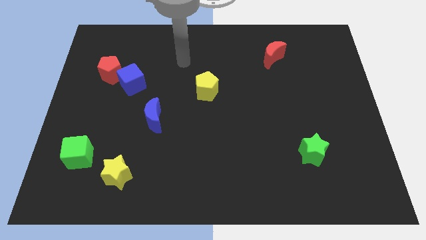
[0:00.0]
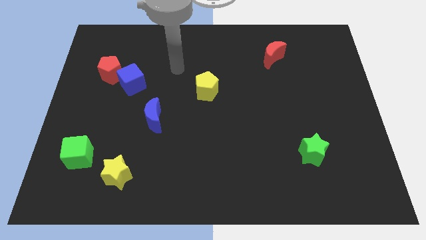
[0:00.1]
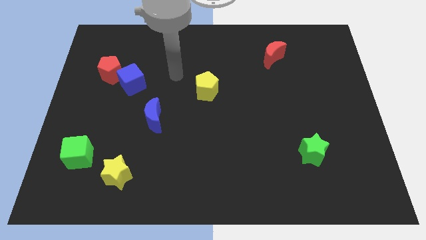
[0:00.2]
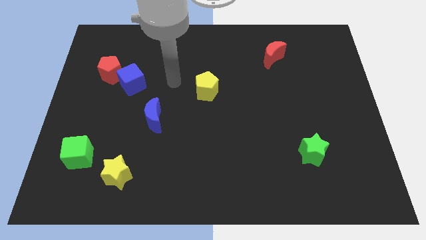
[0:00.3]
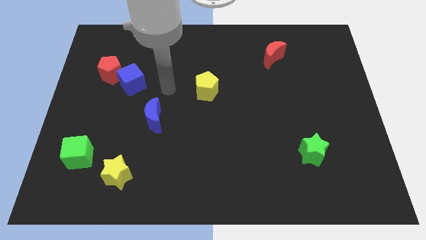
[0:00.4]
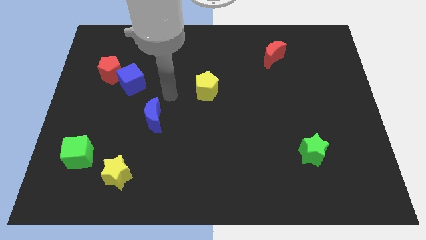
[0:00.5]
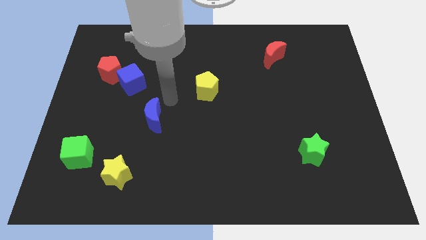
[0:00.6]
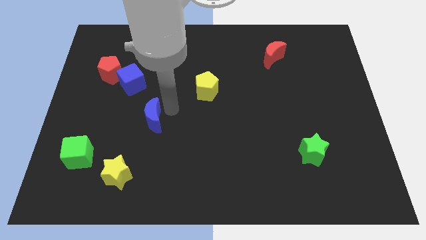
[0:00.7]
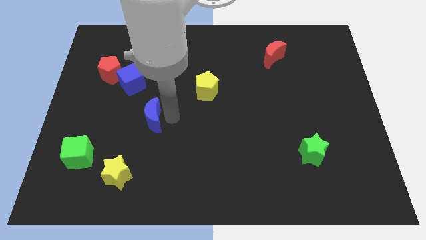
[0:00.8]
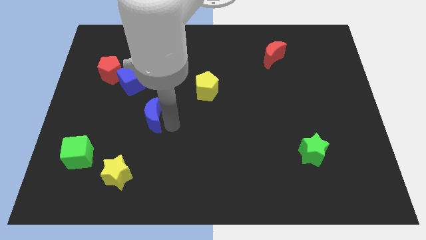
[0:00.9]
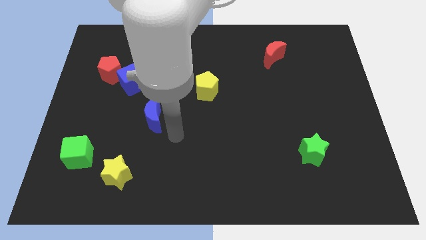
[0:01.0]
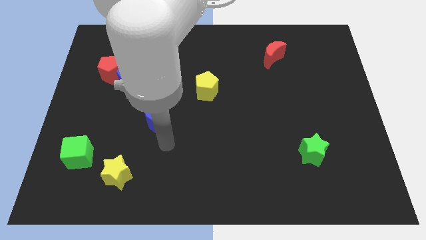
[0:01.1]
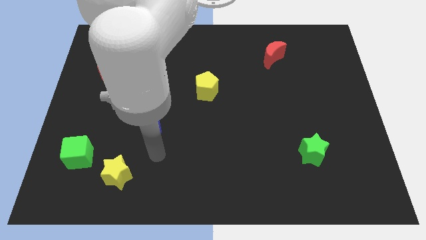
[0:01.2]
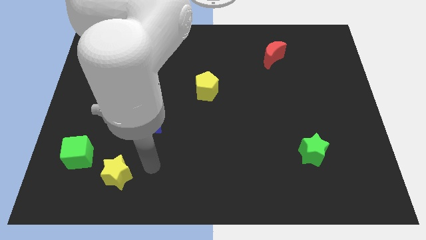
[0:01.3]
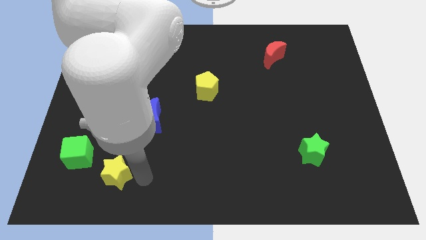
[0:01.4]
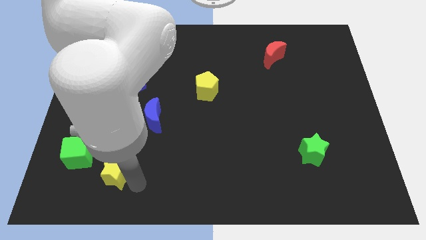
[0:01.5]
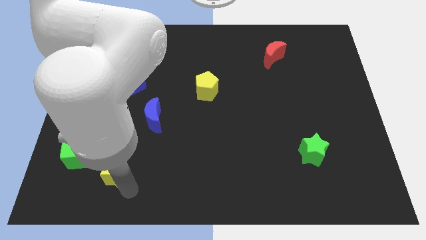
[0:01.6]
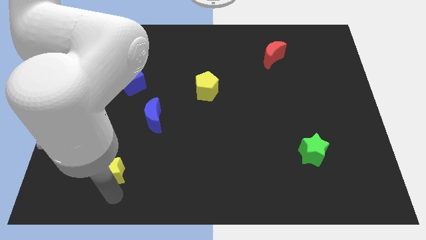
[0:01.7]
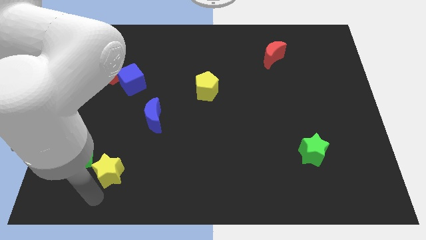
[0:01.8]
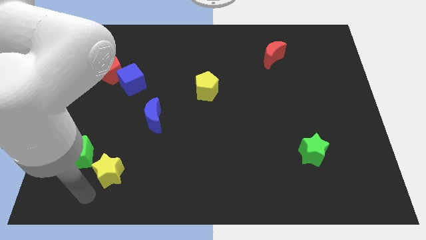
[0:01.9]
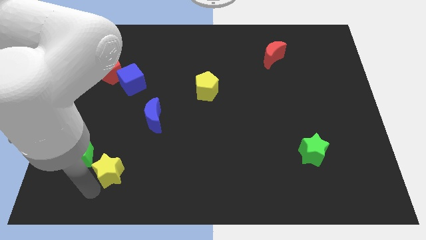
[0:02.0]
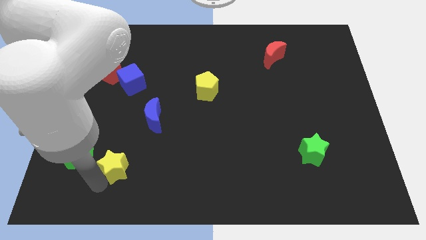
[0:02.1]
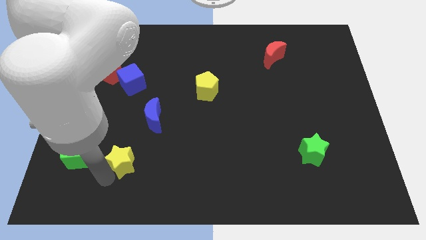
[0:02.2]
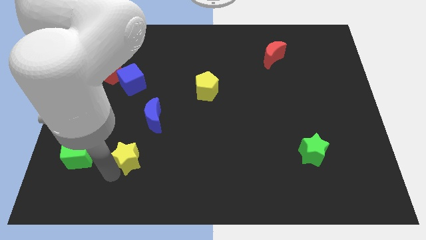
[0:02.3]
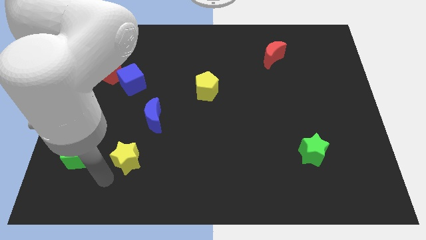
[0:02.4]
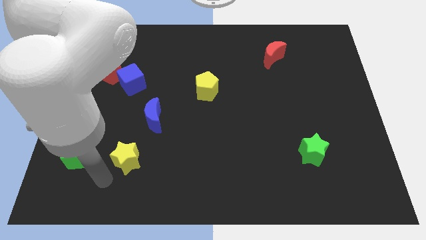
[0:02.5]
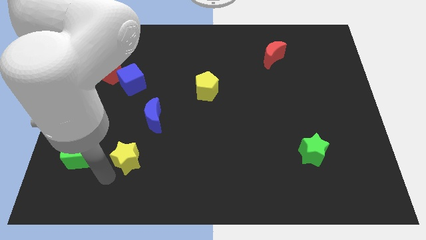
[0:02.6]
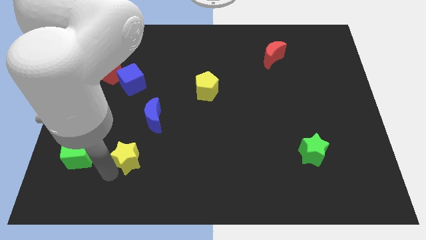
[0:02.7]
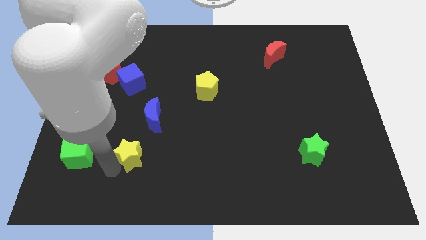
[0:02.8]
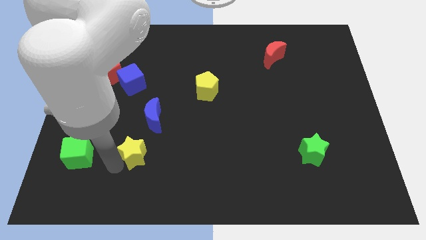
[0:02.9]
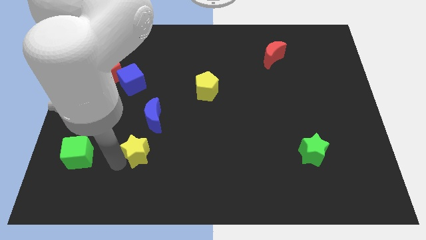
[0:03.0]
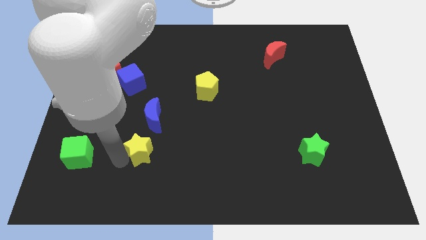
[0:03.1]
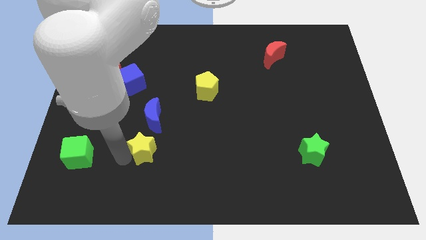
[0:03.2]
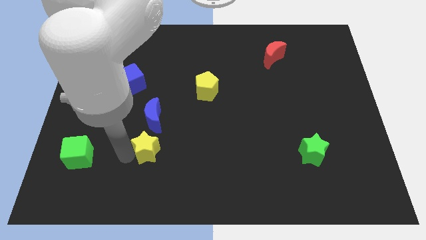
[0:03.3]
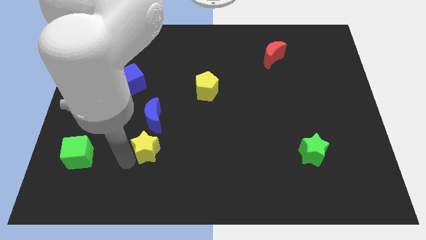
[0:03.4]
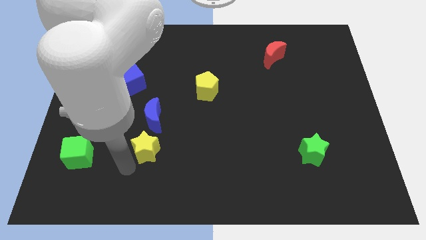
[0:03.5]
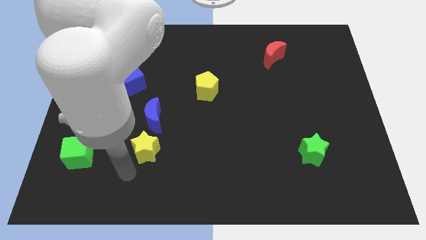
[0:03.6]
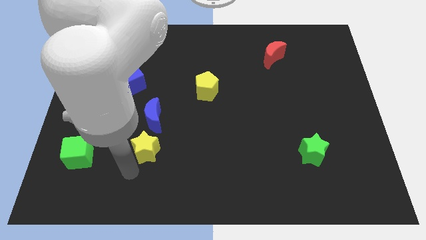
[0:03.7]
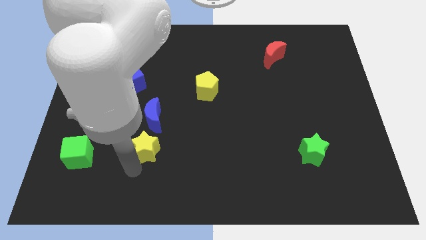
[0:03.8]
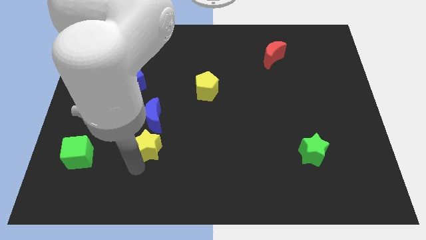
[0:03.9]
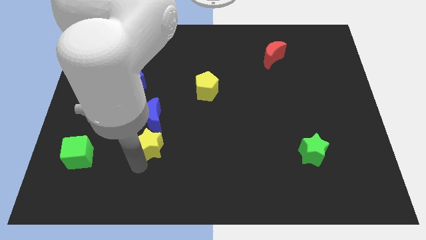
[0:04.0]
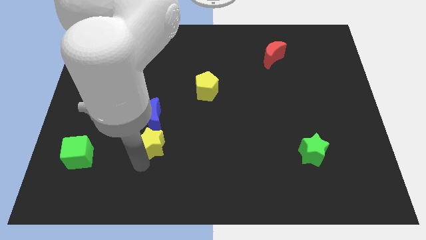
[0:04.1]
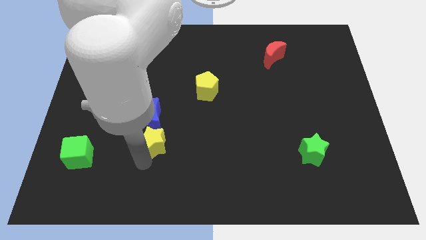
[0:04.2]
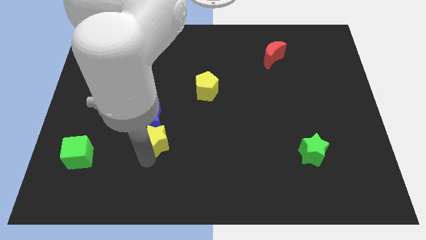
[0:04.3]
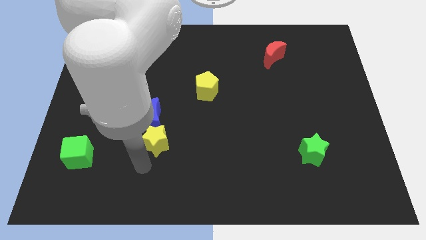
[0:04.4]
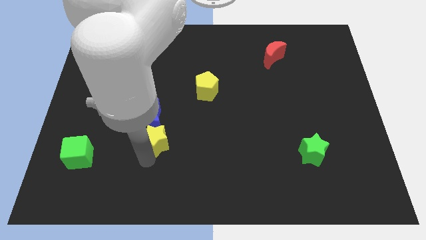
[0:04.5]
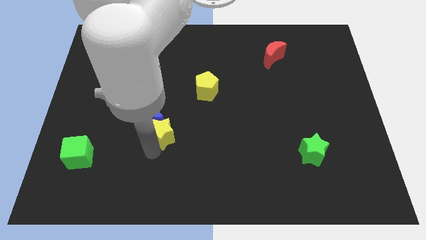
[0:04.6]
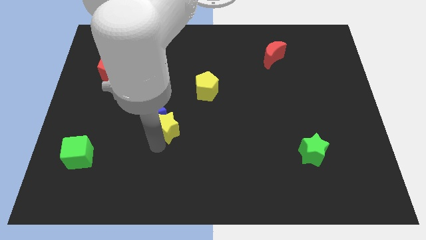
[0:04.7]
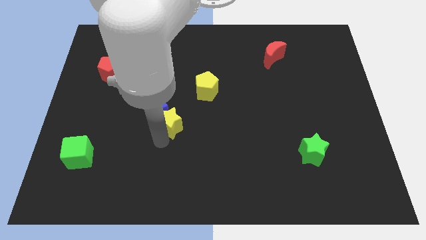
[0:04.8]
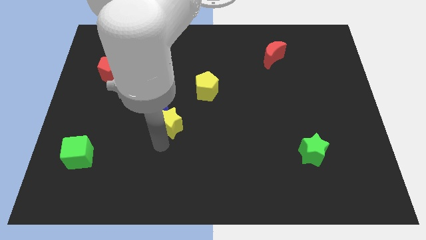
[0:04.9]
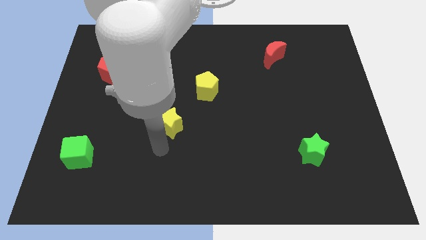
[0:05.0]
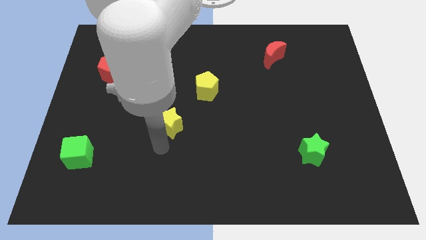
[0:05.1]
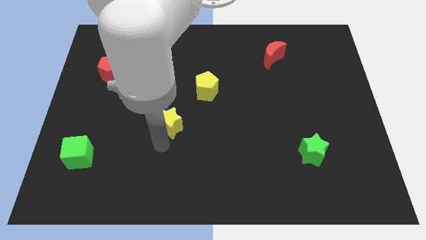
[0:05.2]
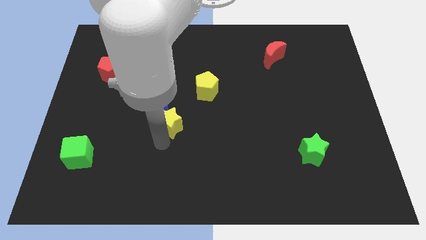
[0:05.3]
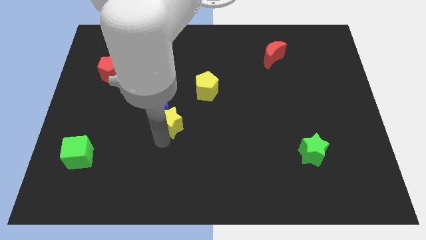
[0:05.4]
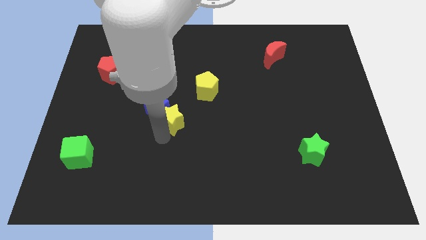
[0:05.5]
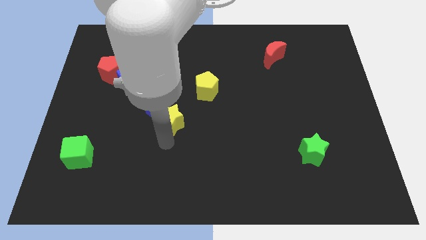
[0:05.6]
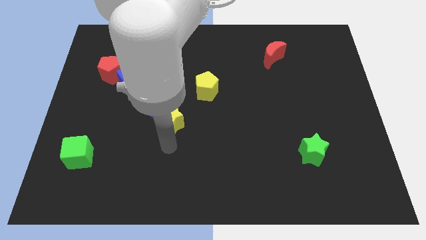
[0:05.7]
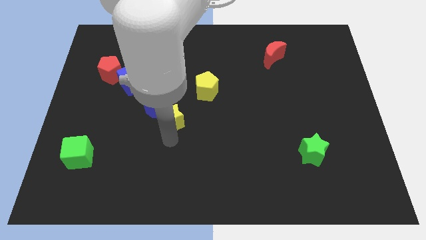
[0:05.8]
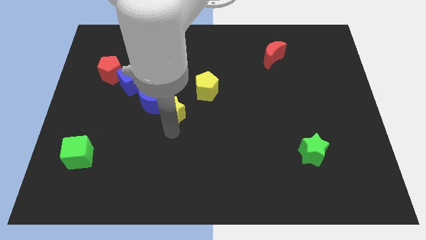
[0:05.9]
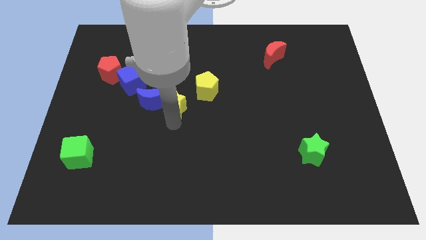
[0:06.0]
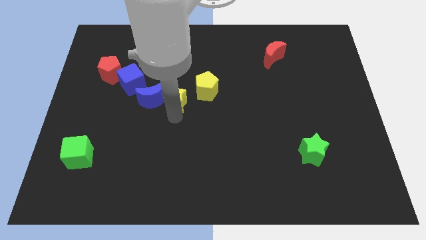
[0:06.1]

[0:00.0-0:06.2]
slide the yellow star diagonally up and to the right of the blue moon

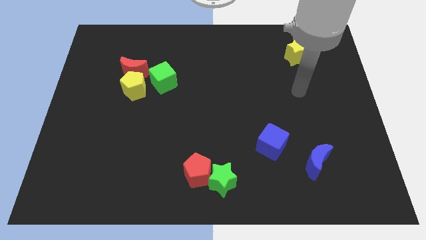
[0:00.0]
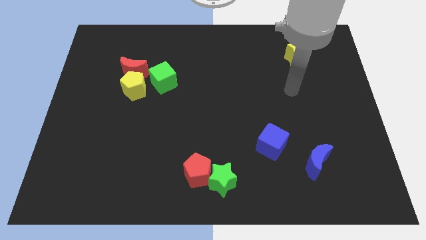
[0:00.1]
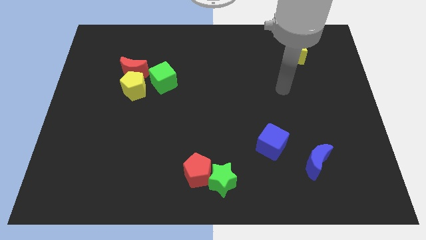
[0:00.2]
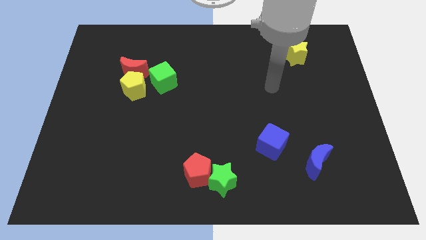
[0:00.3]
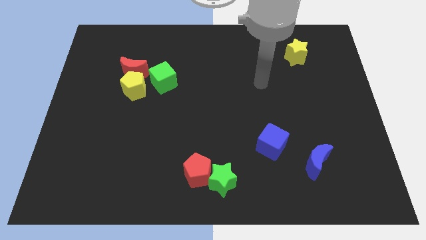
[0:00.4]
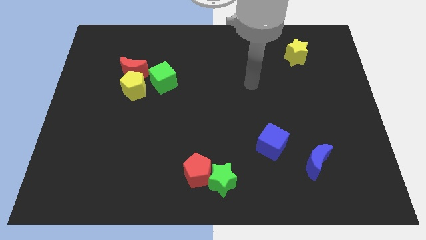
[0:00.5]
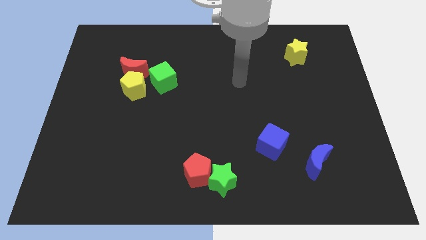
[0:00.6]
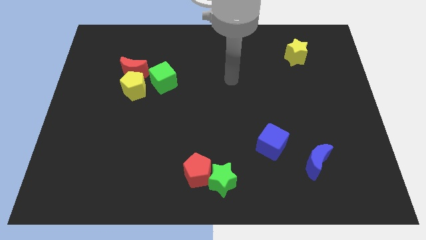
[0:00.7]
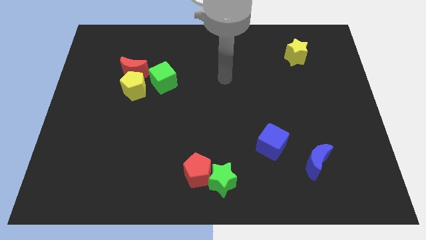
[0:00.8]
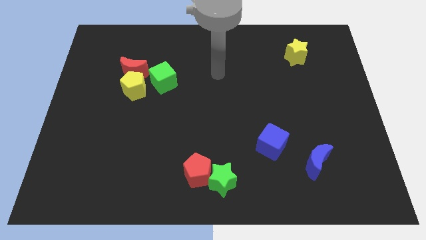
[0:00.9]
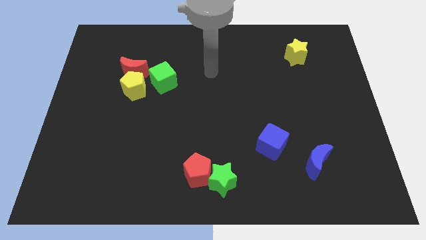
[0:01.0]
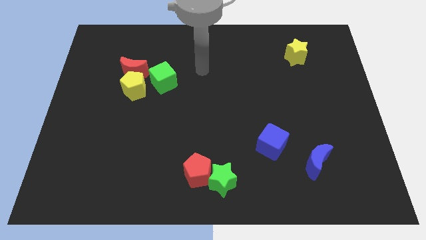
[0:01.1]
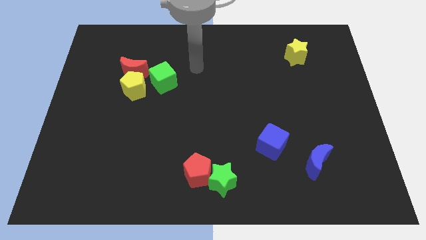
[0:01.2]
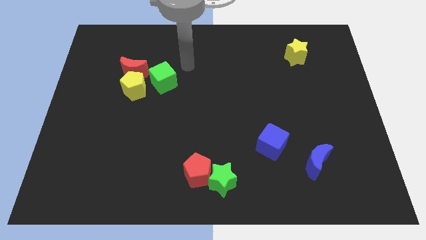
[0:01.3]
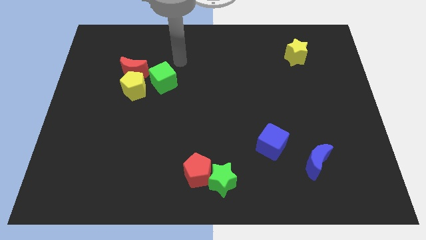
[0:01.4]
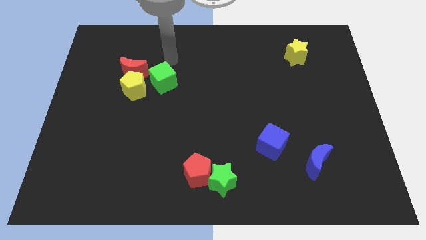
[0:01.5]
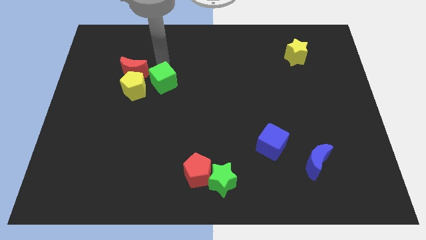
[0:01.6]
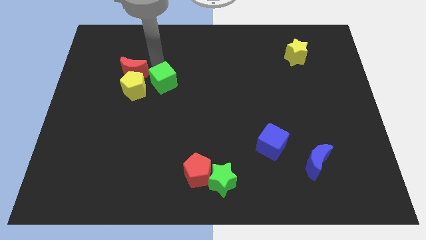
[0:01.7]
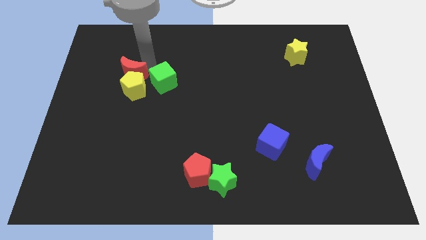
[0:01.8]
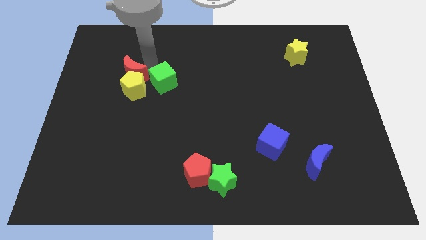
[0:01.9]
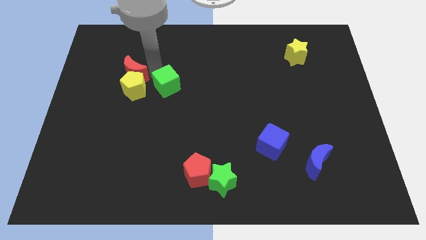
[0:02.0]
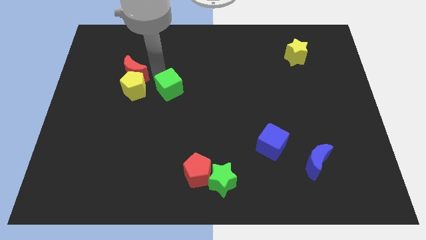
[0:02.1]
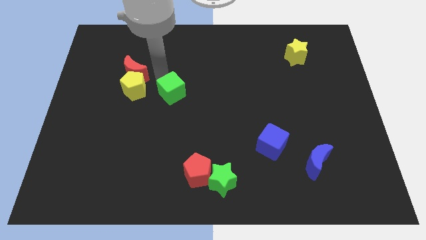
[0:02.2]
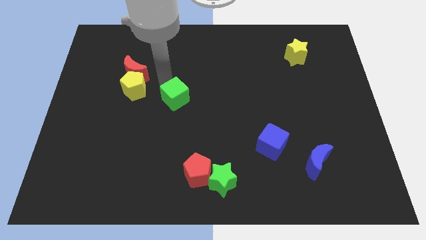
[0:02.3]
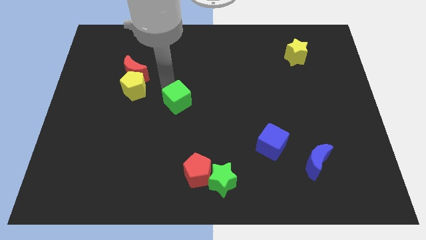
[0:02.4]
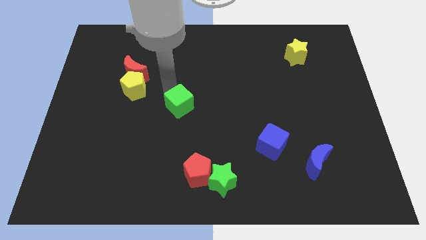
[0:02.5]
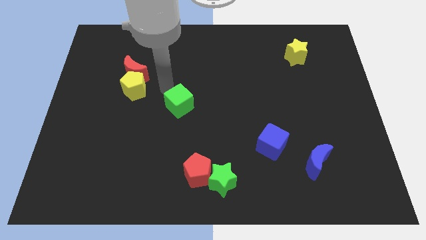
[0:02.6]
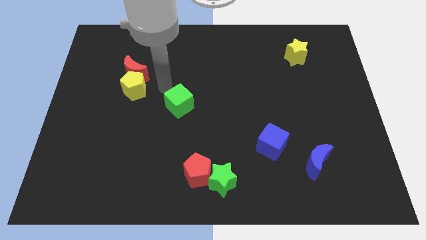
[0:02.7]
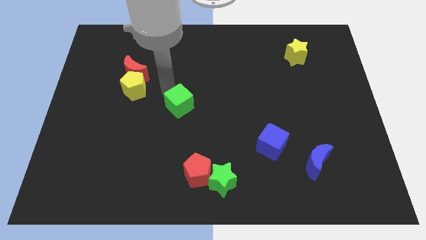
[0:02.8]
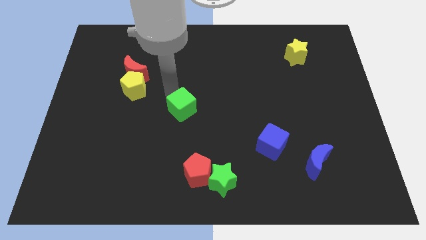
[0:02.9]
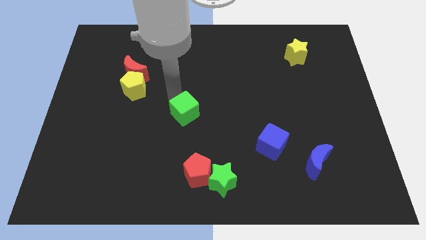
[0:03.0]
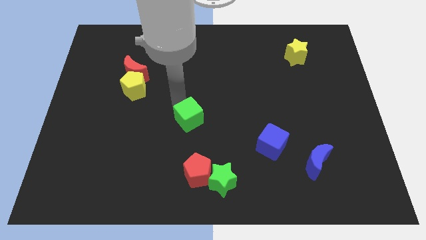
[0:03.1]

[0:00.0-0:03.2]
slide the green cube above the red pentagon
